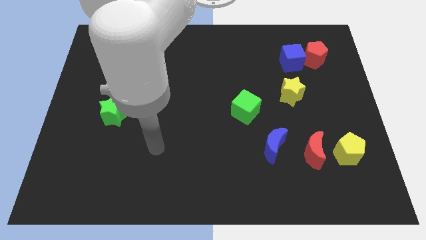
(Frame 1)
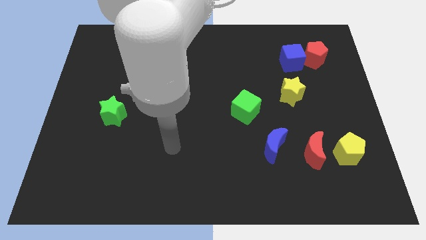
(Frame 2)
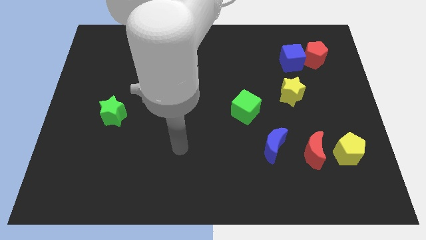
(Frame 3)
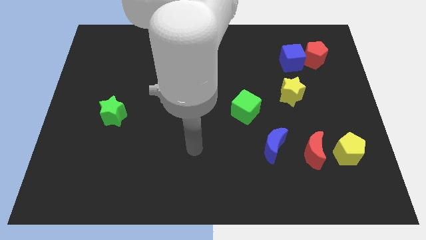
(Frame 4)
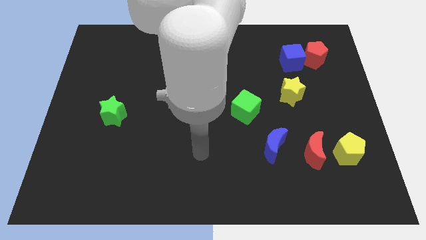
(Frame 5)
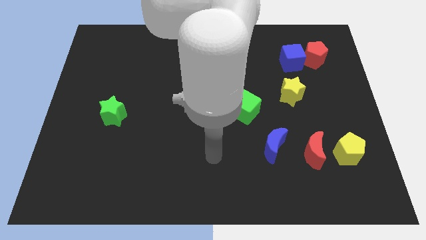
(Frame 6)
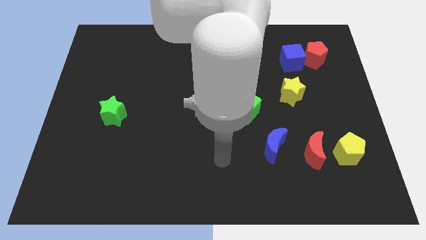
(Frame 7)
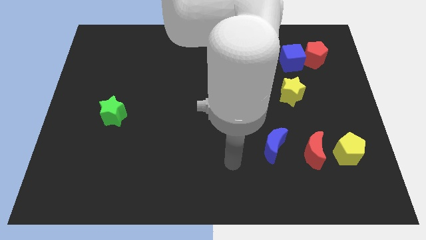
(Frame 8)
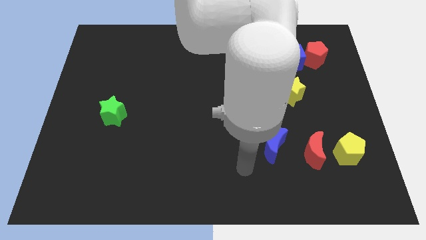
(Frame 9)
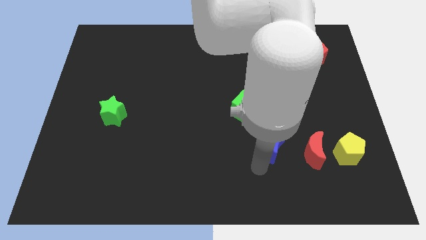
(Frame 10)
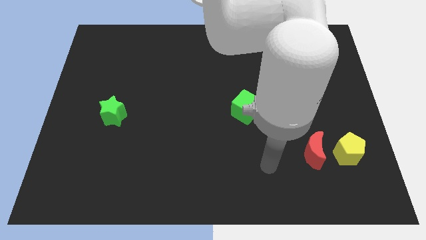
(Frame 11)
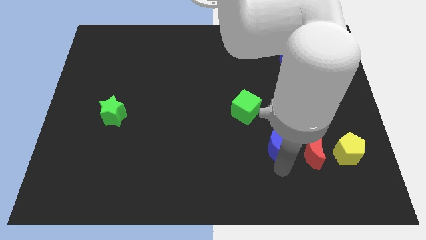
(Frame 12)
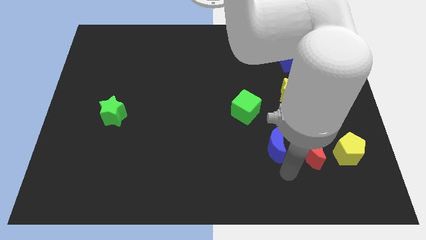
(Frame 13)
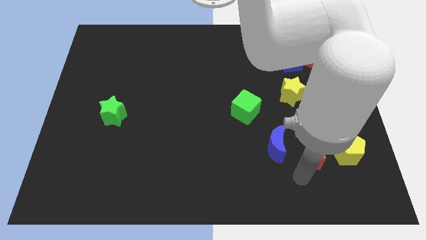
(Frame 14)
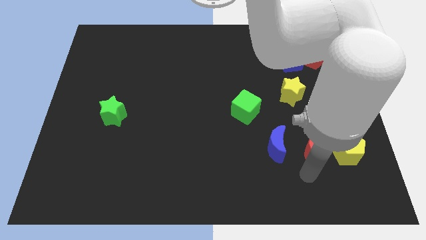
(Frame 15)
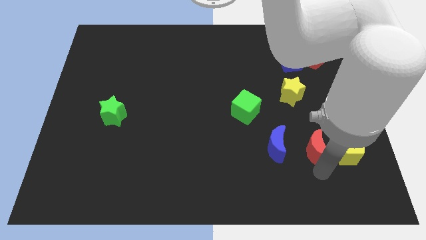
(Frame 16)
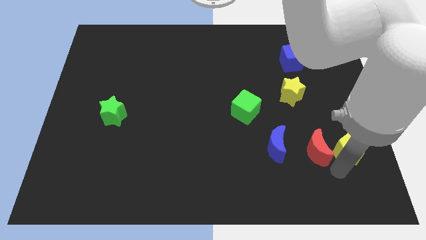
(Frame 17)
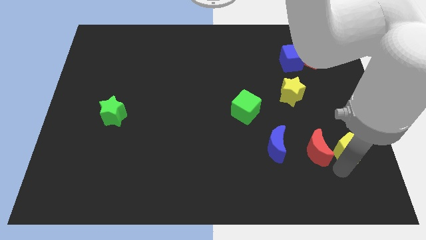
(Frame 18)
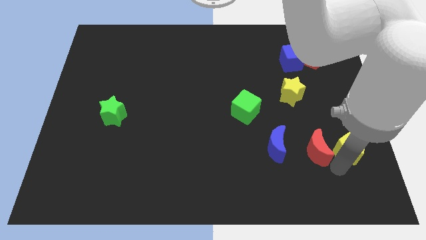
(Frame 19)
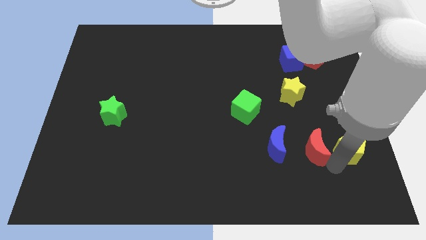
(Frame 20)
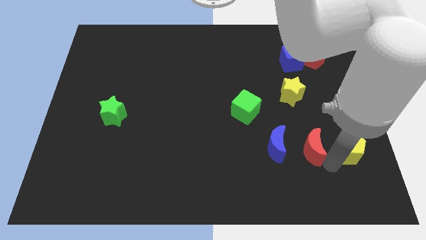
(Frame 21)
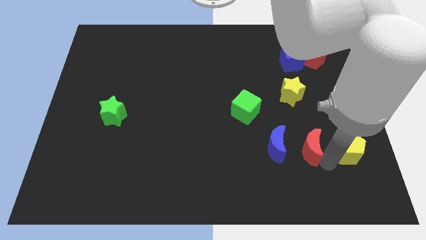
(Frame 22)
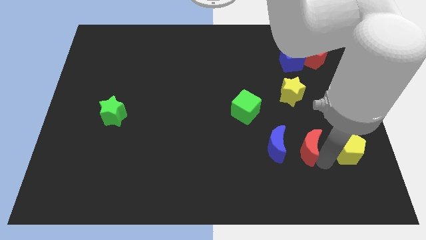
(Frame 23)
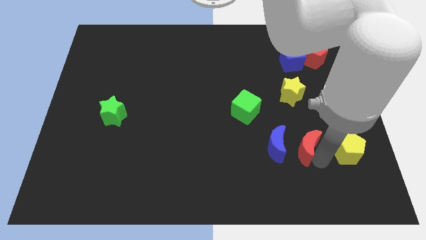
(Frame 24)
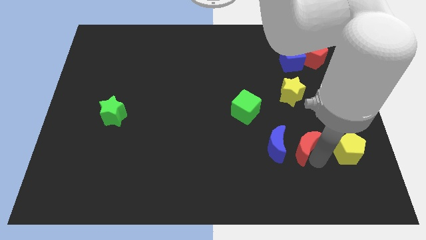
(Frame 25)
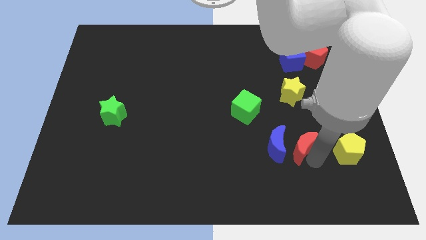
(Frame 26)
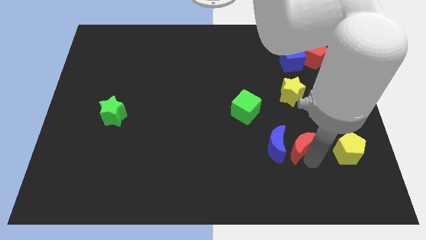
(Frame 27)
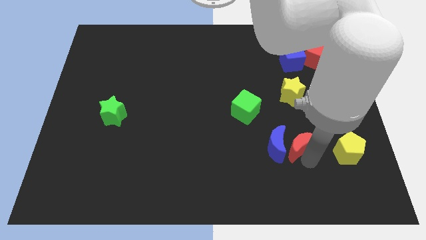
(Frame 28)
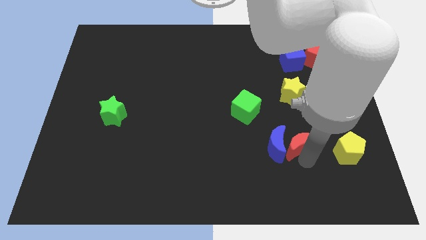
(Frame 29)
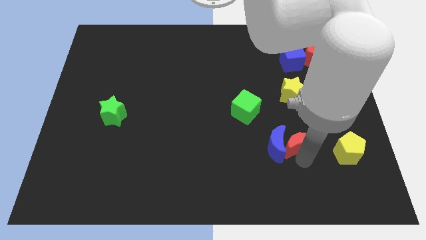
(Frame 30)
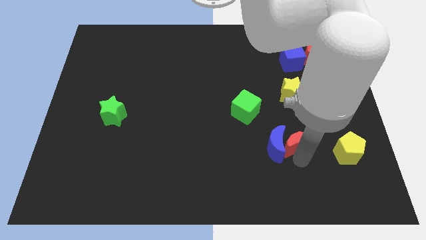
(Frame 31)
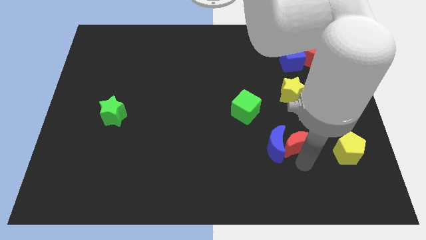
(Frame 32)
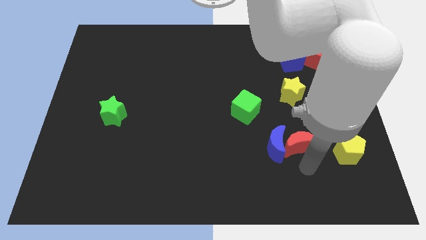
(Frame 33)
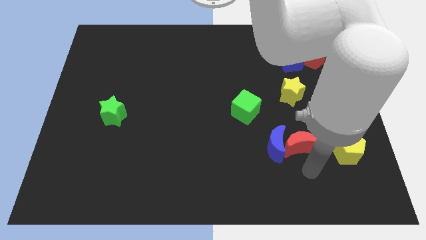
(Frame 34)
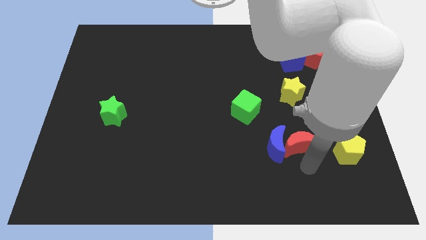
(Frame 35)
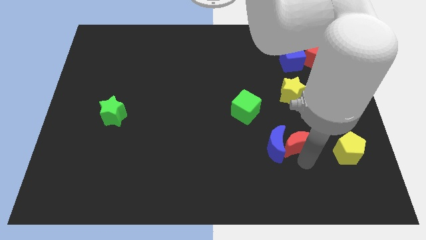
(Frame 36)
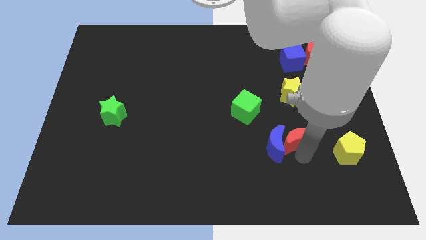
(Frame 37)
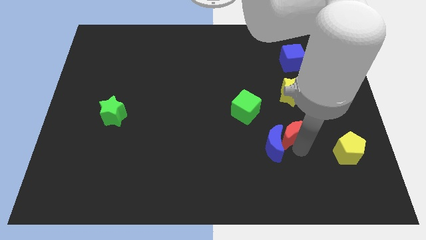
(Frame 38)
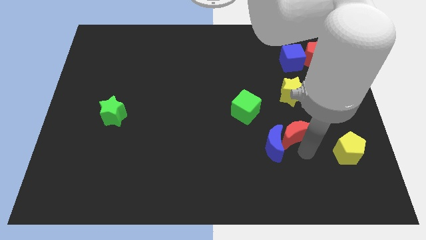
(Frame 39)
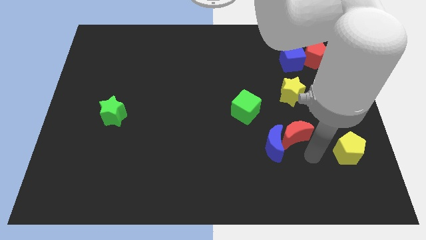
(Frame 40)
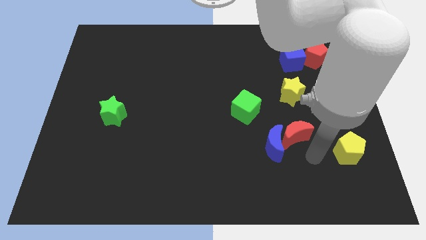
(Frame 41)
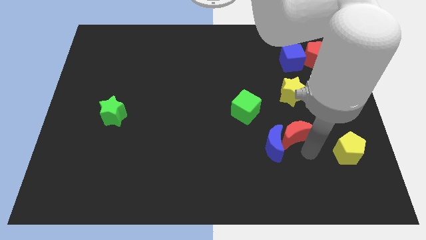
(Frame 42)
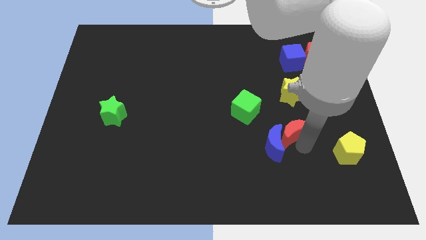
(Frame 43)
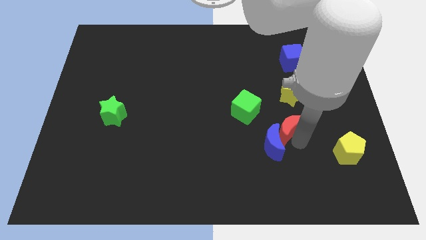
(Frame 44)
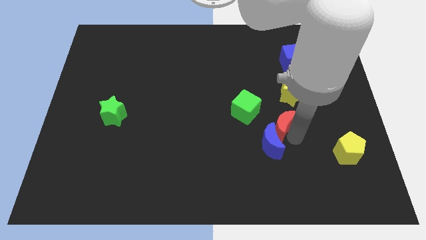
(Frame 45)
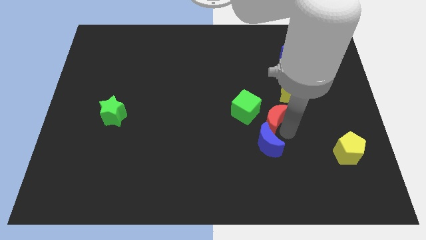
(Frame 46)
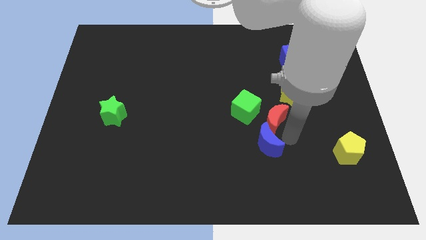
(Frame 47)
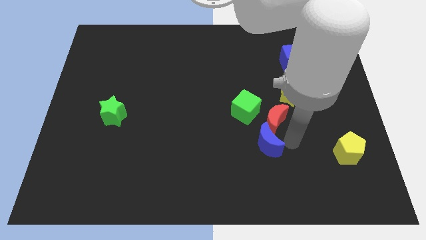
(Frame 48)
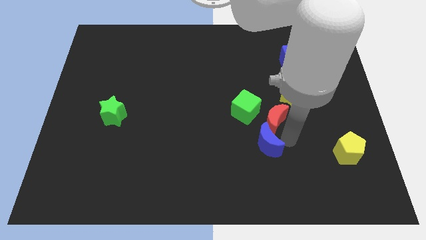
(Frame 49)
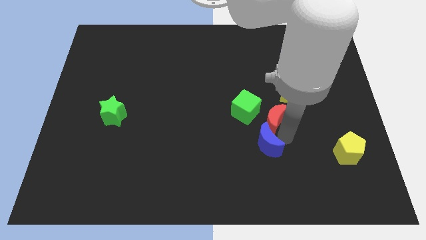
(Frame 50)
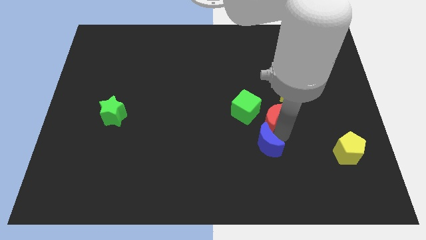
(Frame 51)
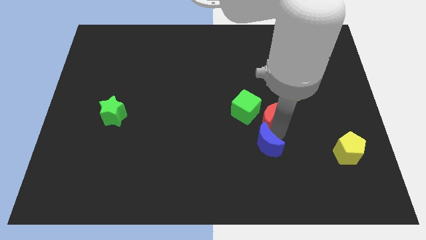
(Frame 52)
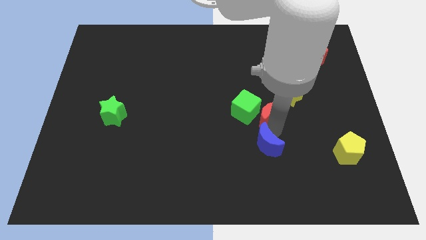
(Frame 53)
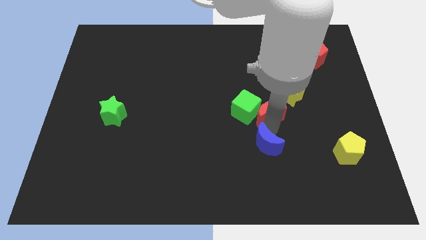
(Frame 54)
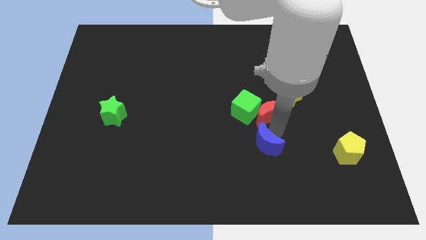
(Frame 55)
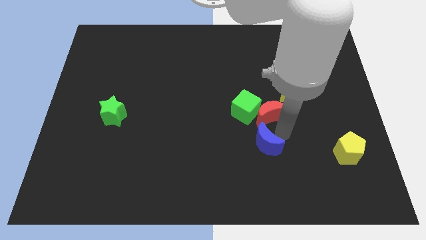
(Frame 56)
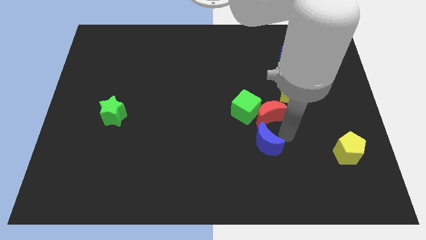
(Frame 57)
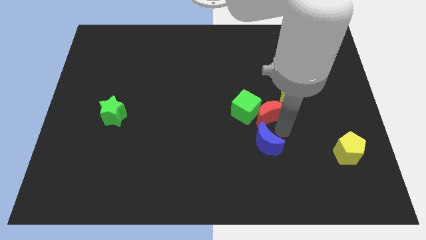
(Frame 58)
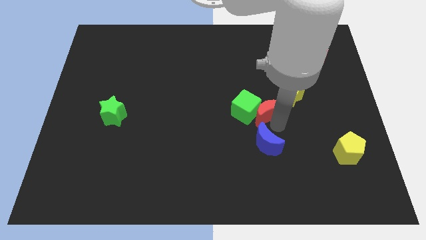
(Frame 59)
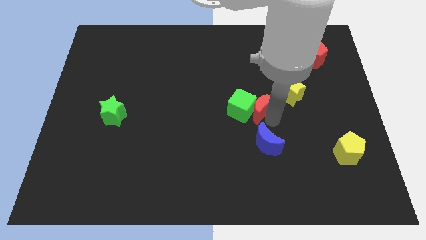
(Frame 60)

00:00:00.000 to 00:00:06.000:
push the red moon left of the yellow star

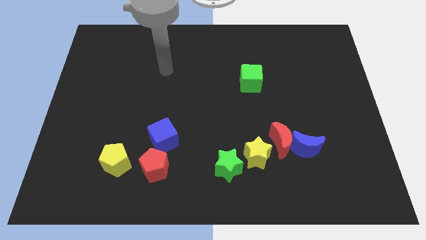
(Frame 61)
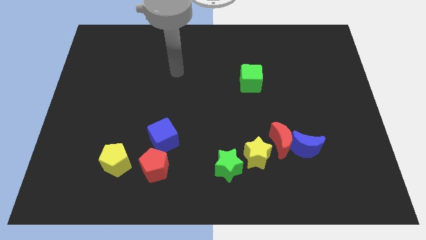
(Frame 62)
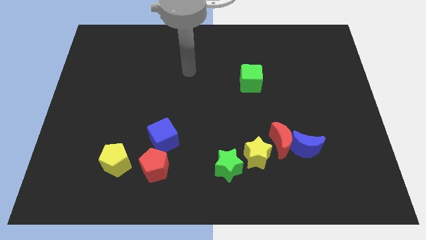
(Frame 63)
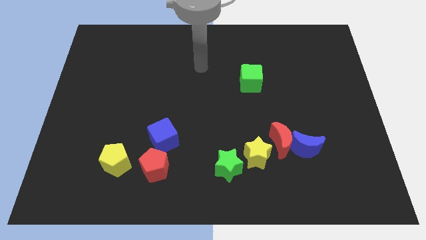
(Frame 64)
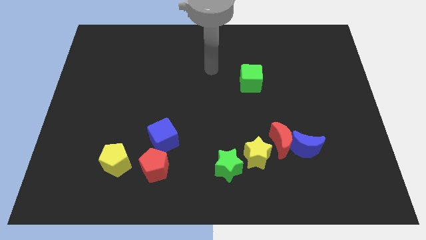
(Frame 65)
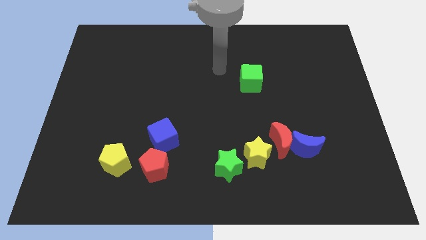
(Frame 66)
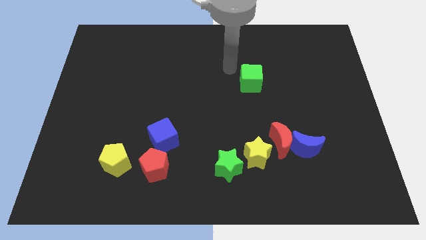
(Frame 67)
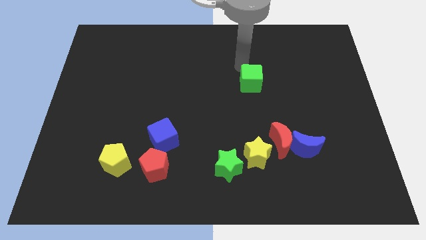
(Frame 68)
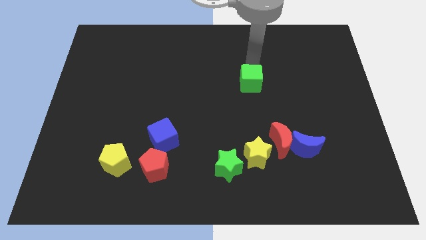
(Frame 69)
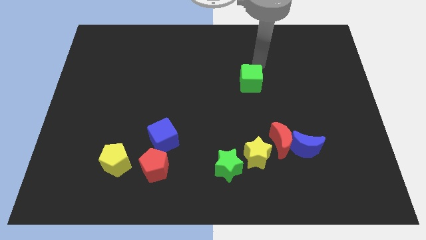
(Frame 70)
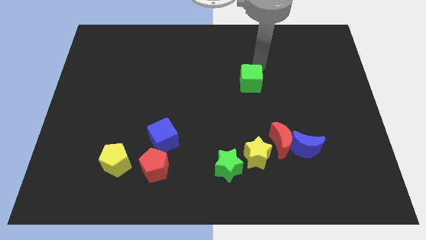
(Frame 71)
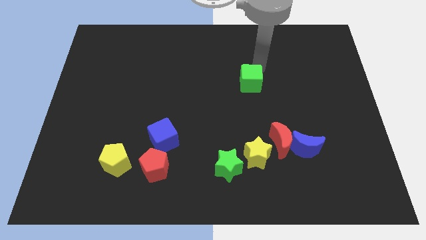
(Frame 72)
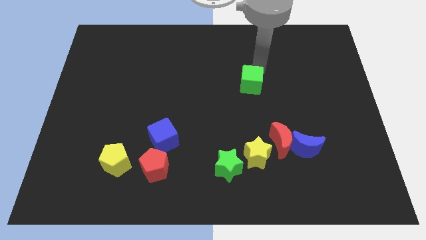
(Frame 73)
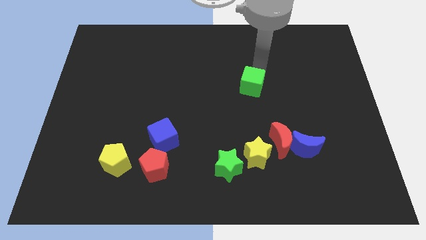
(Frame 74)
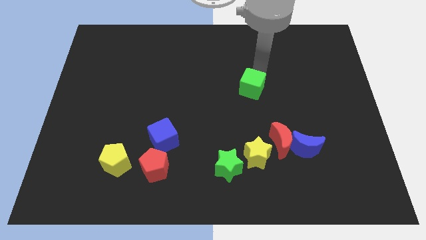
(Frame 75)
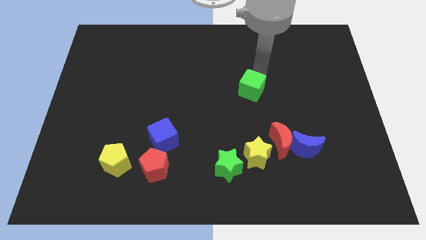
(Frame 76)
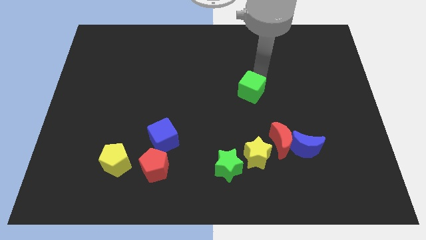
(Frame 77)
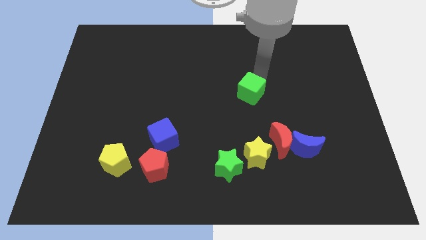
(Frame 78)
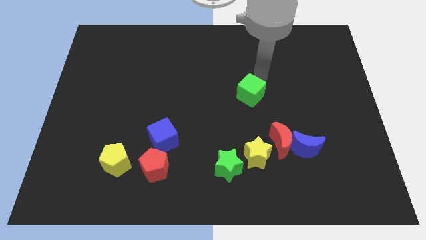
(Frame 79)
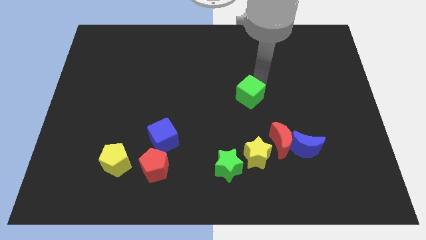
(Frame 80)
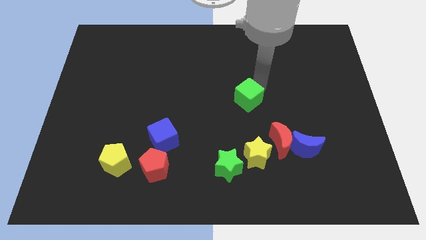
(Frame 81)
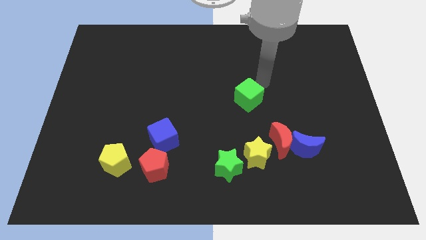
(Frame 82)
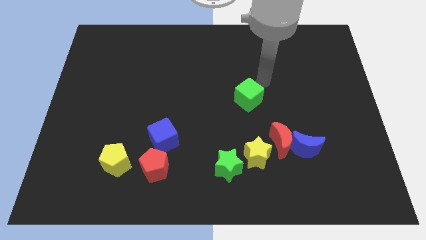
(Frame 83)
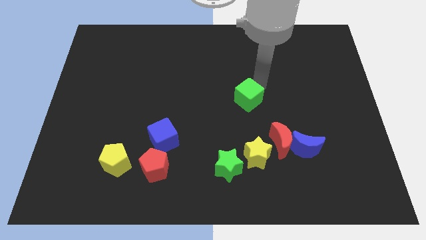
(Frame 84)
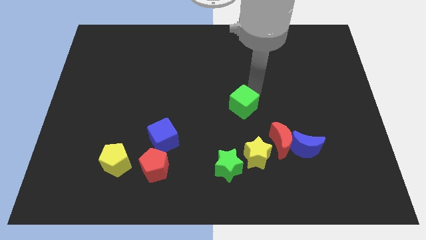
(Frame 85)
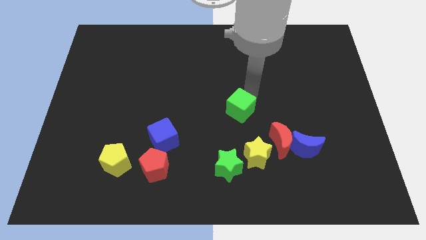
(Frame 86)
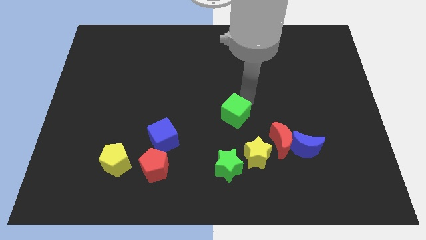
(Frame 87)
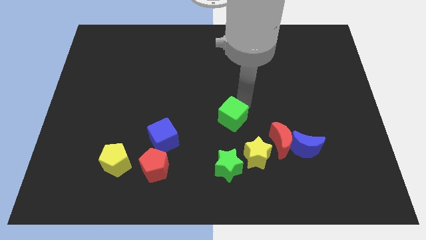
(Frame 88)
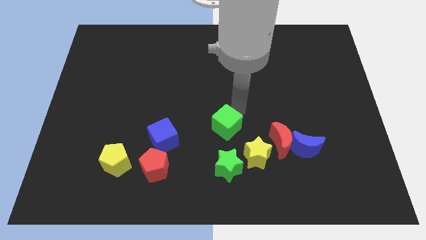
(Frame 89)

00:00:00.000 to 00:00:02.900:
push the green cube to the right side of the blue cube
